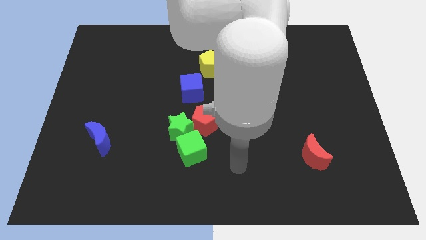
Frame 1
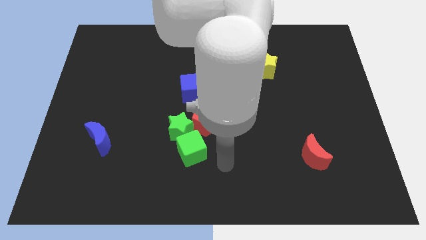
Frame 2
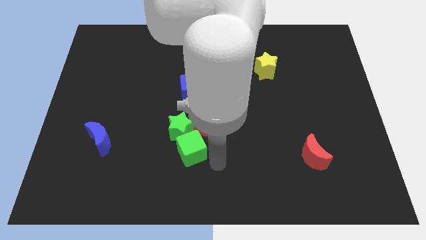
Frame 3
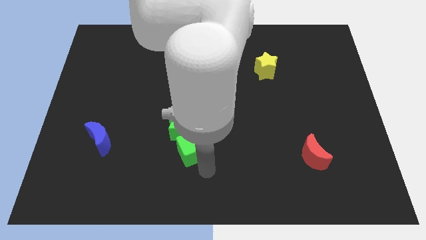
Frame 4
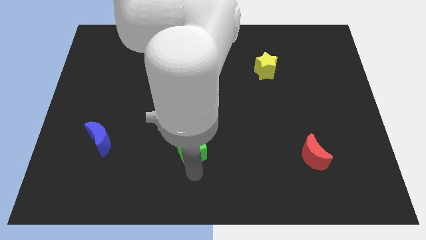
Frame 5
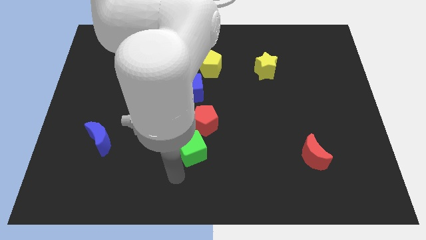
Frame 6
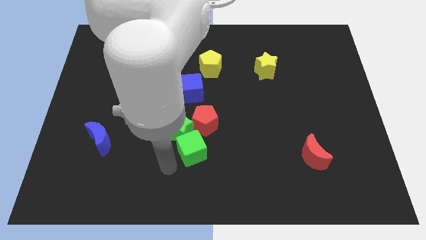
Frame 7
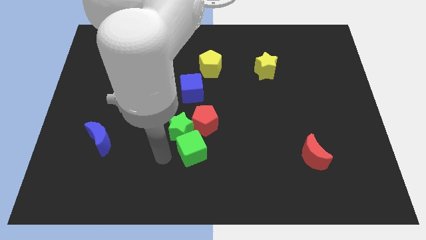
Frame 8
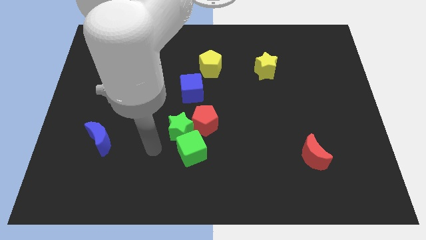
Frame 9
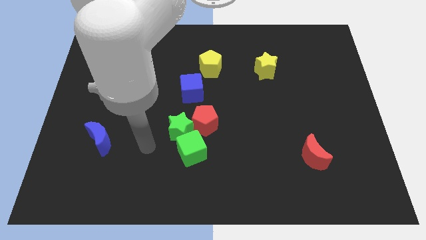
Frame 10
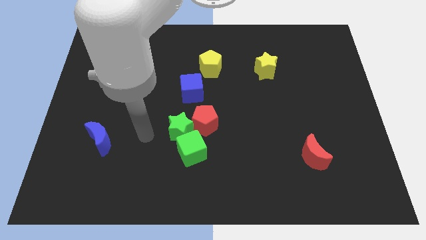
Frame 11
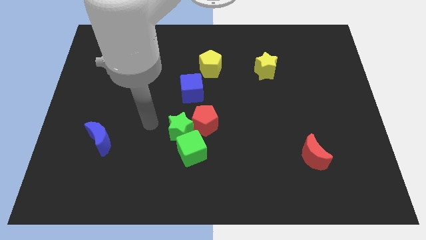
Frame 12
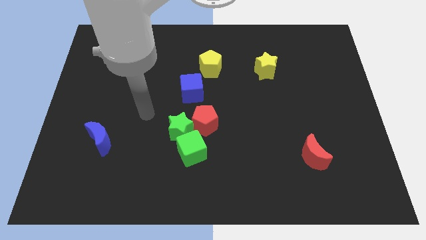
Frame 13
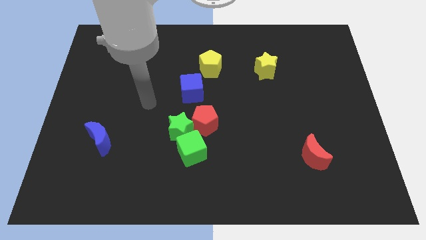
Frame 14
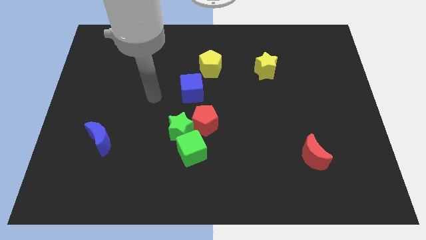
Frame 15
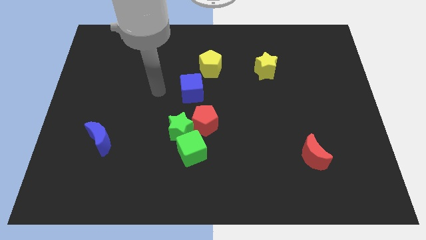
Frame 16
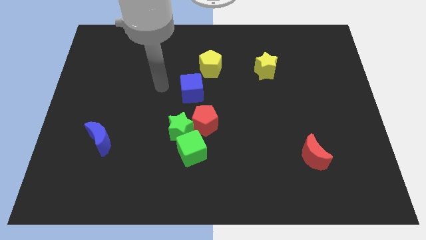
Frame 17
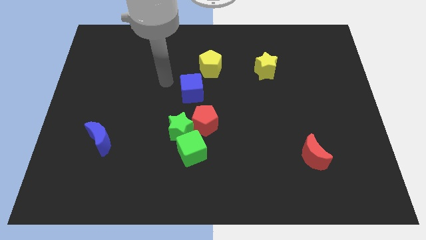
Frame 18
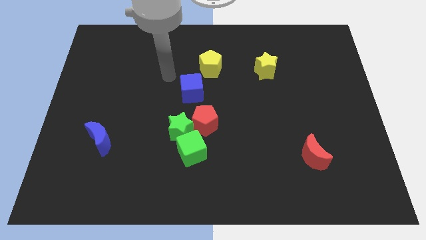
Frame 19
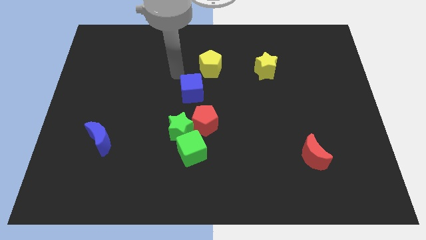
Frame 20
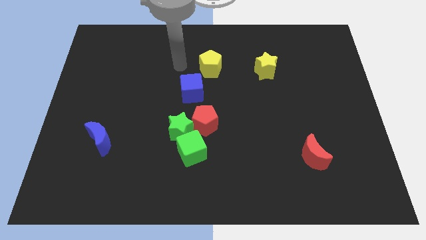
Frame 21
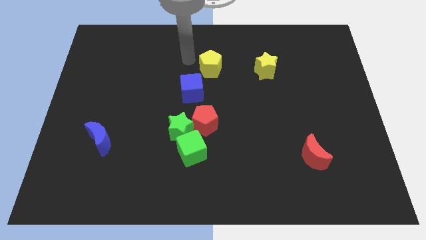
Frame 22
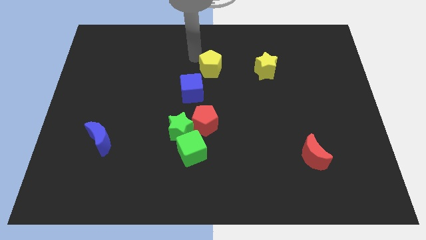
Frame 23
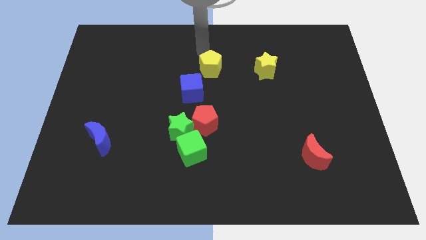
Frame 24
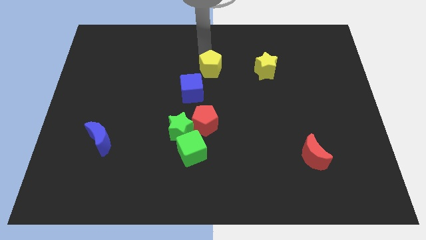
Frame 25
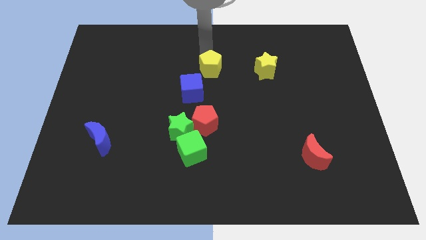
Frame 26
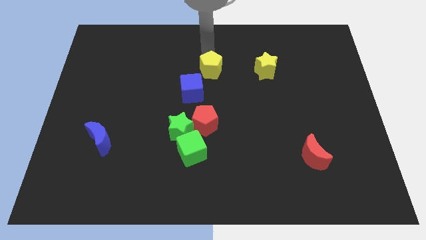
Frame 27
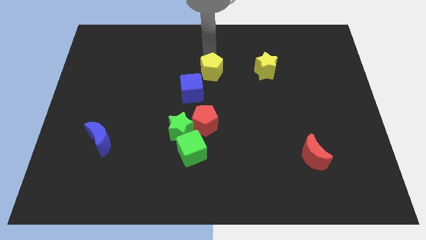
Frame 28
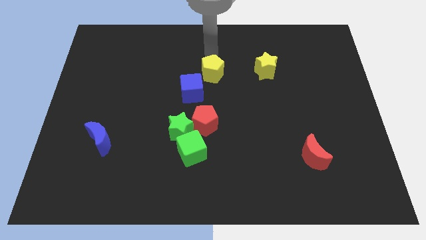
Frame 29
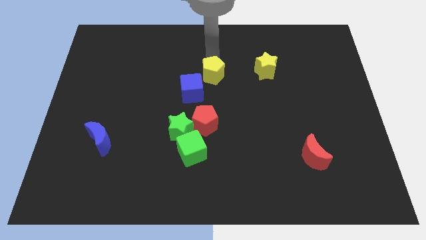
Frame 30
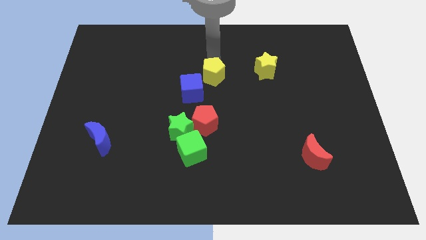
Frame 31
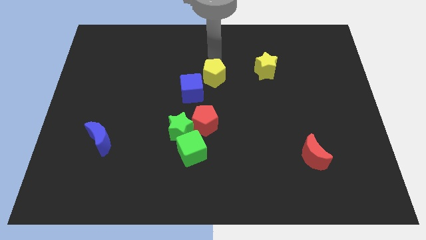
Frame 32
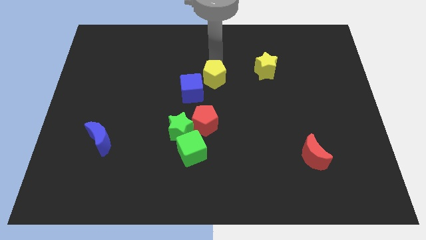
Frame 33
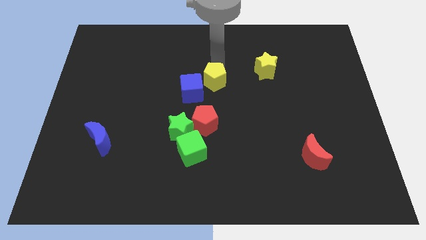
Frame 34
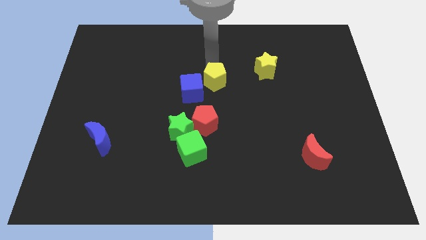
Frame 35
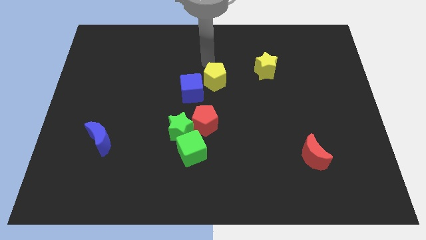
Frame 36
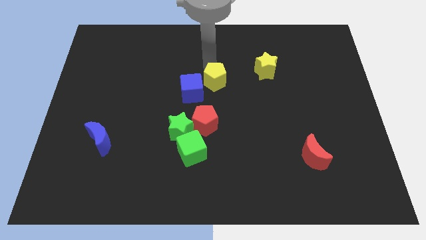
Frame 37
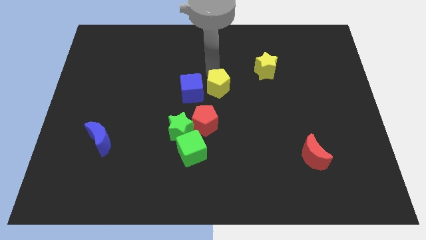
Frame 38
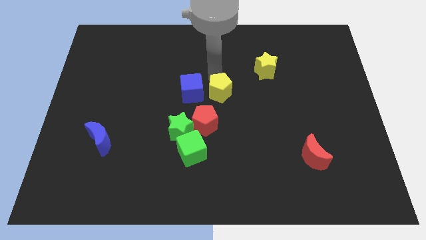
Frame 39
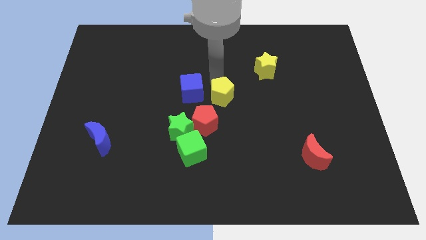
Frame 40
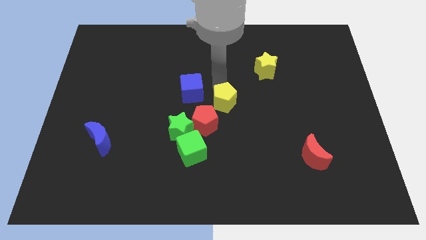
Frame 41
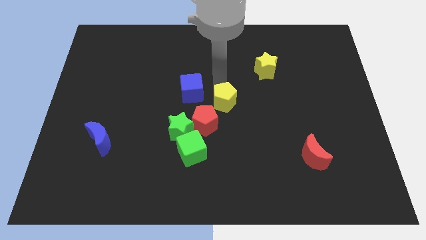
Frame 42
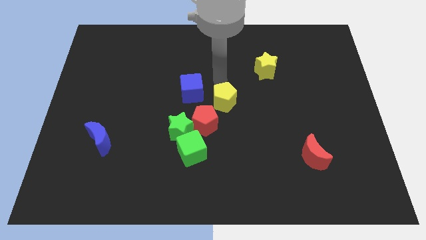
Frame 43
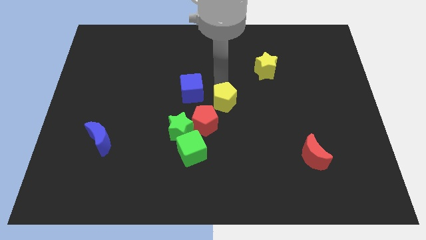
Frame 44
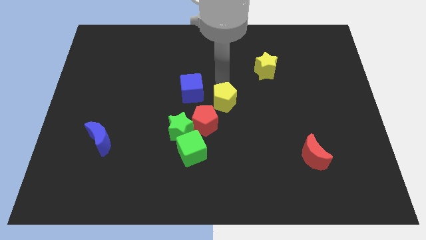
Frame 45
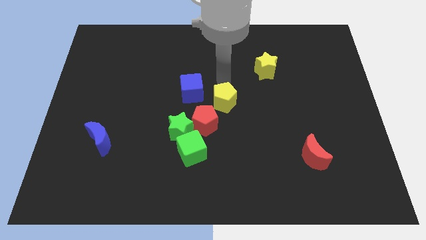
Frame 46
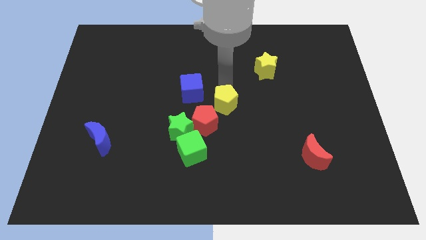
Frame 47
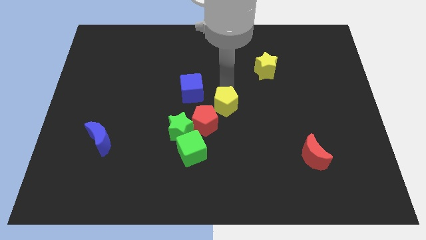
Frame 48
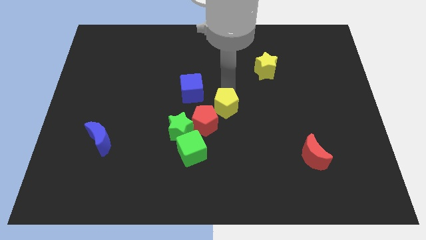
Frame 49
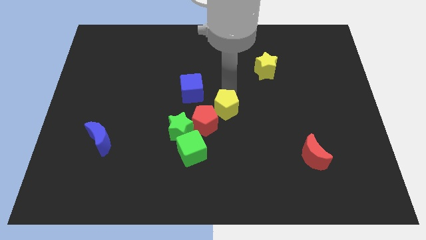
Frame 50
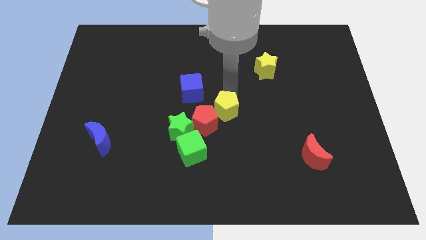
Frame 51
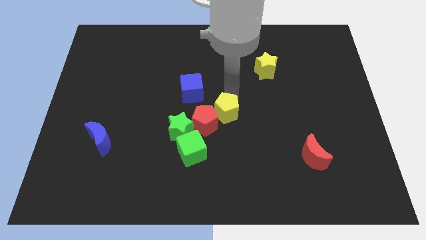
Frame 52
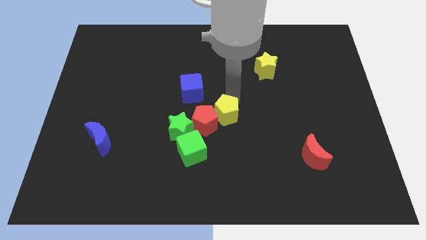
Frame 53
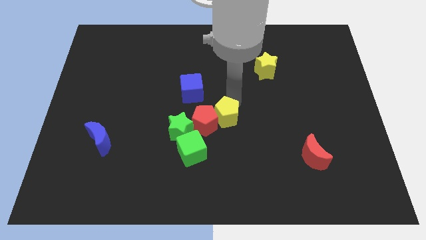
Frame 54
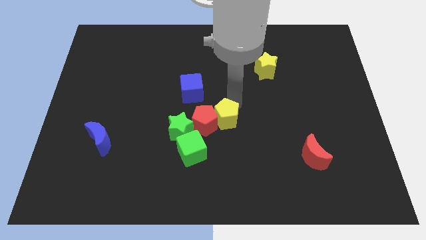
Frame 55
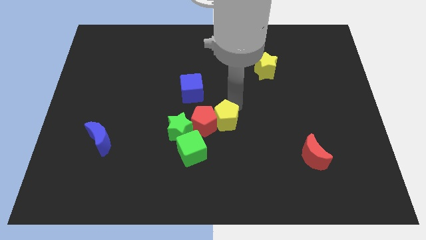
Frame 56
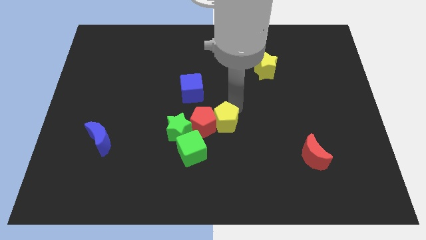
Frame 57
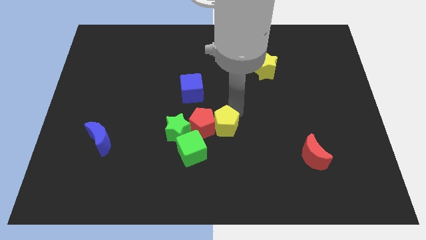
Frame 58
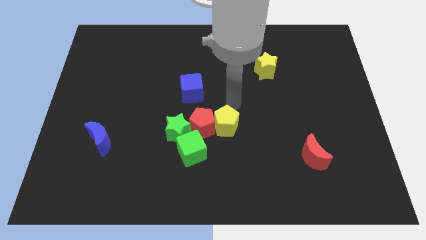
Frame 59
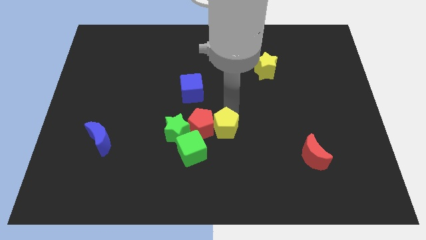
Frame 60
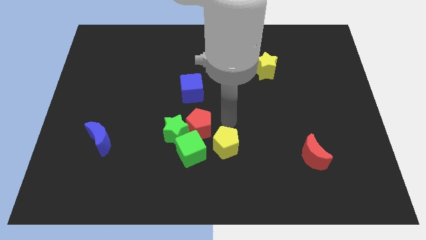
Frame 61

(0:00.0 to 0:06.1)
push the yellow pentagon down

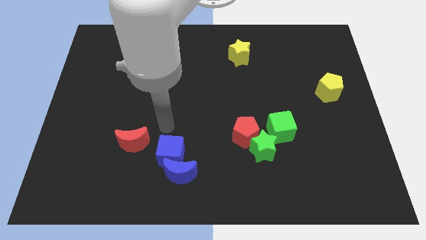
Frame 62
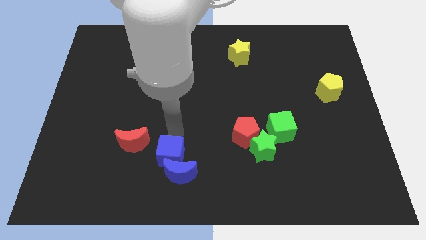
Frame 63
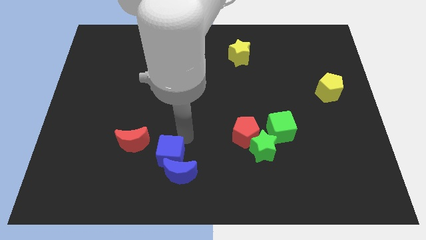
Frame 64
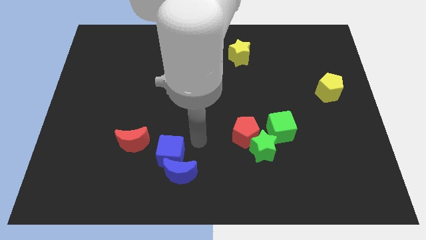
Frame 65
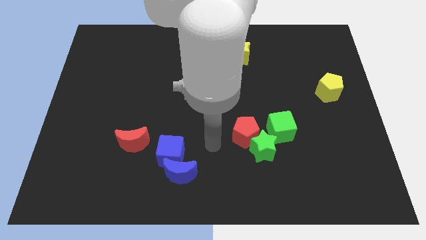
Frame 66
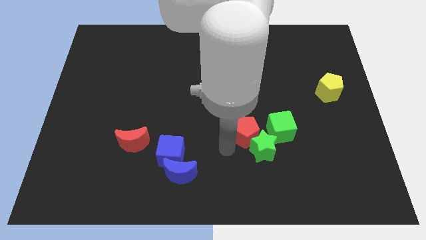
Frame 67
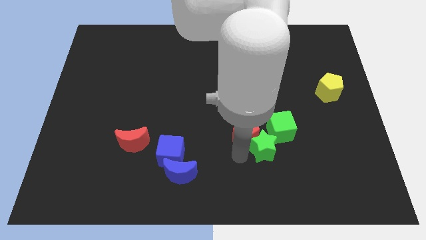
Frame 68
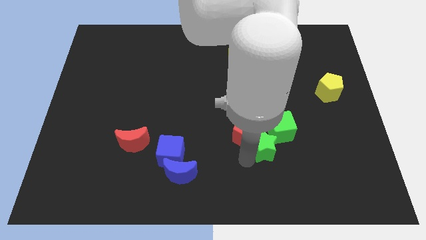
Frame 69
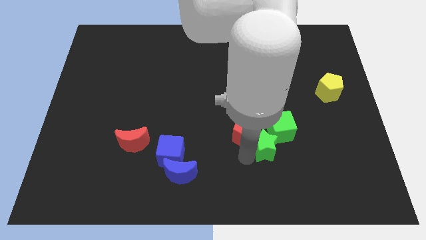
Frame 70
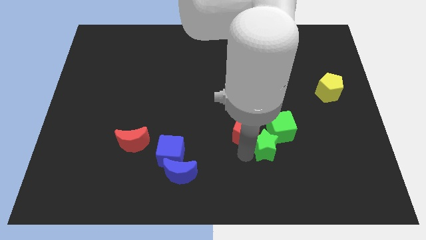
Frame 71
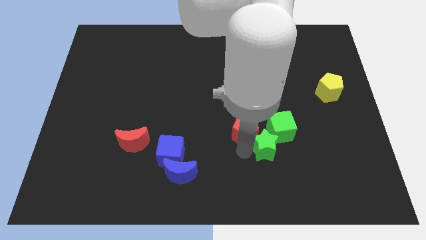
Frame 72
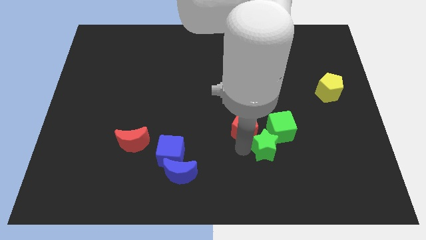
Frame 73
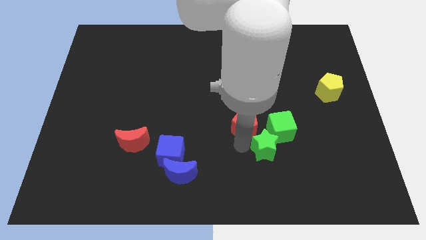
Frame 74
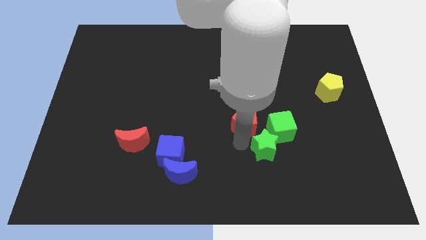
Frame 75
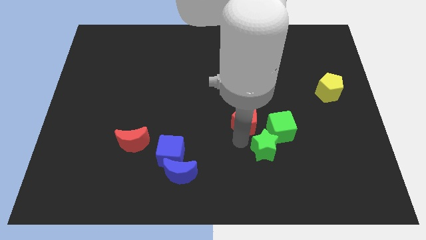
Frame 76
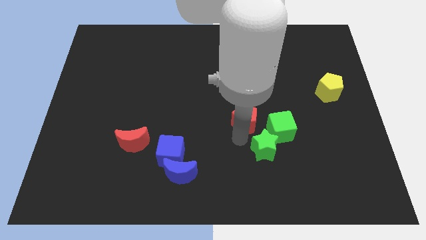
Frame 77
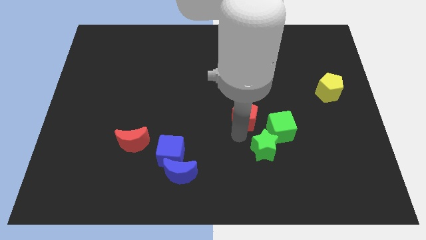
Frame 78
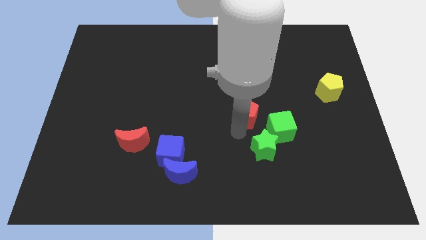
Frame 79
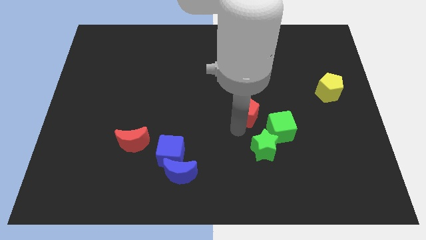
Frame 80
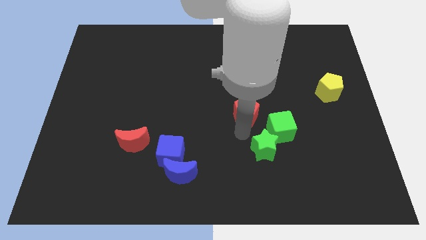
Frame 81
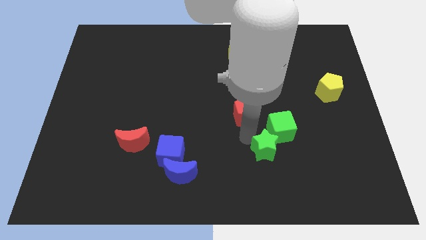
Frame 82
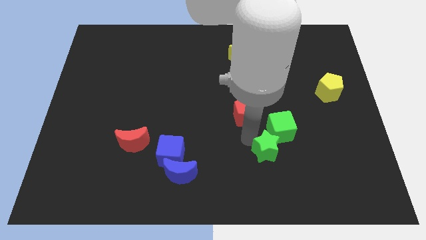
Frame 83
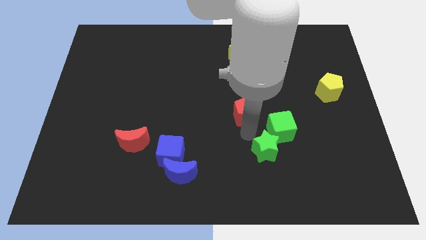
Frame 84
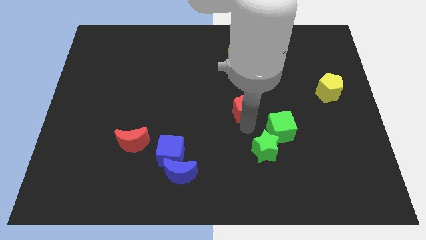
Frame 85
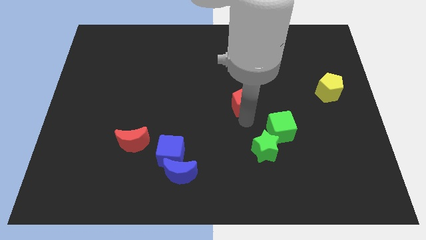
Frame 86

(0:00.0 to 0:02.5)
push the red pentagon a bit up
